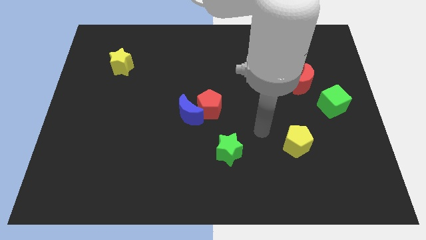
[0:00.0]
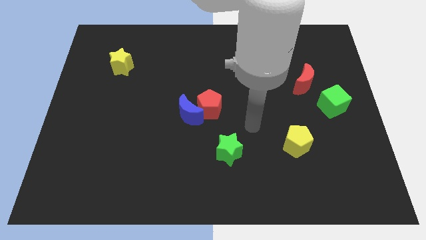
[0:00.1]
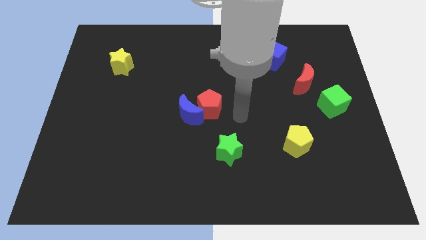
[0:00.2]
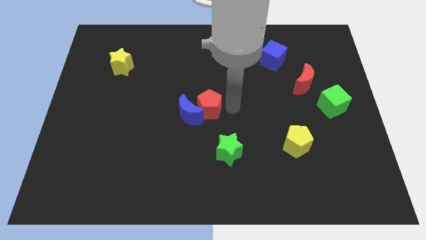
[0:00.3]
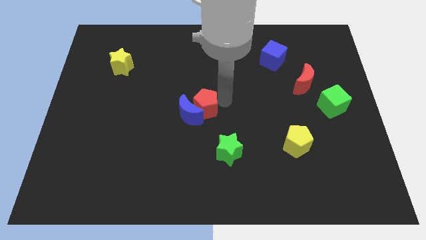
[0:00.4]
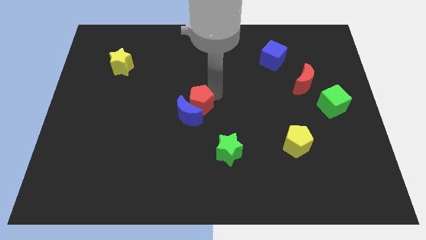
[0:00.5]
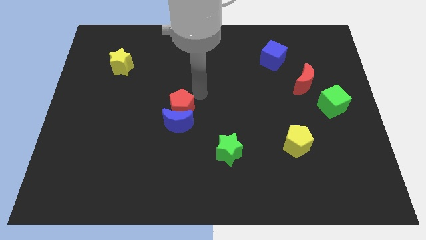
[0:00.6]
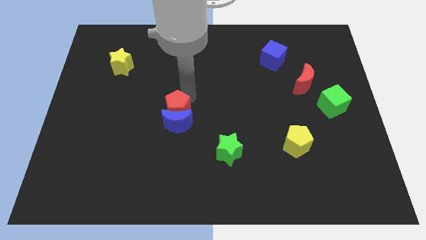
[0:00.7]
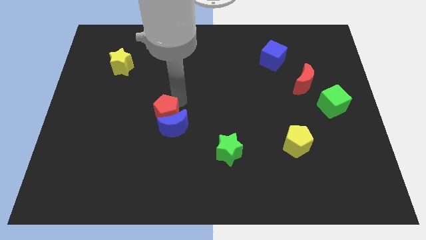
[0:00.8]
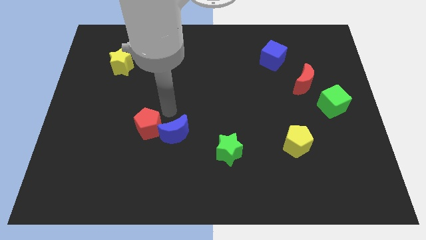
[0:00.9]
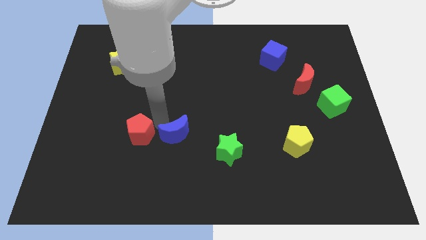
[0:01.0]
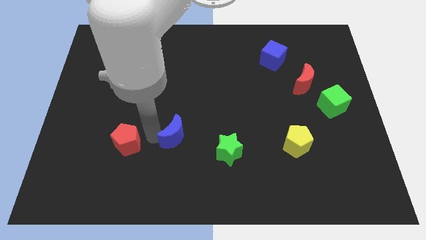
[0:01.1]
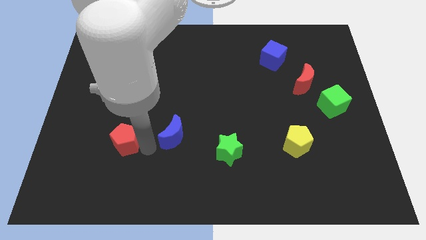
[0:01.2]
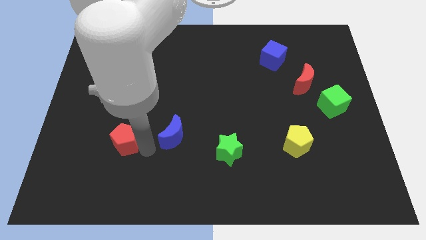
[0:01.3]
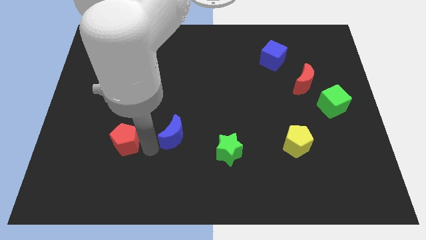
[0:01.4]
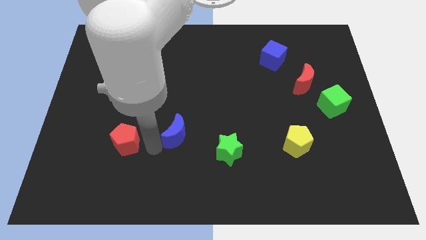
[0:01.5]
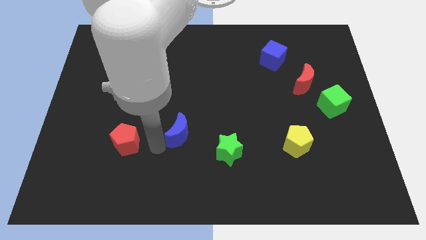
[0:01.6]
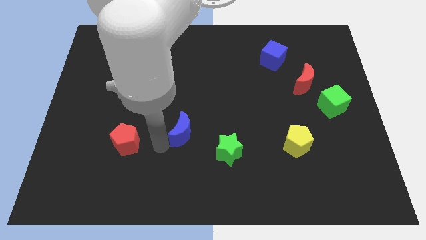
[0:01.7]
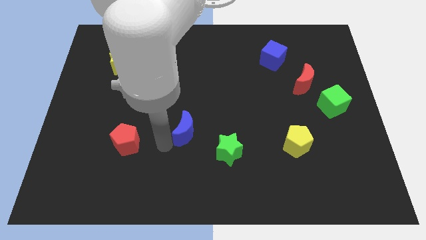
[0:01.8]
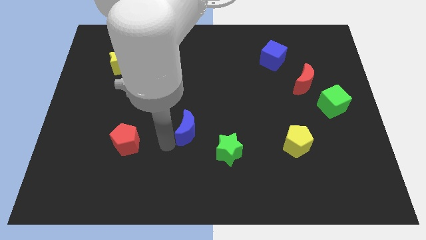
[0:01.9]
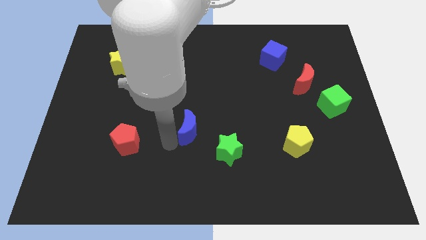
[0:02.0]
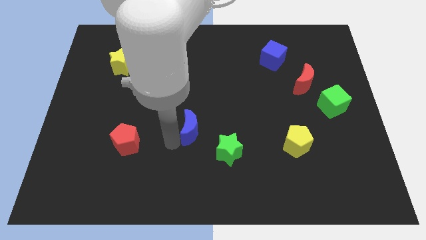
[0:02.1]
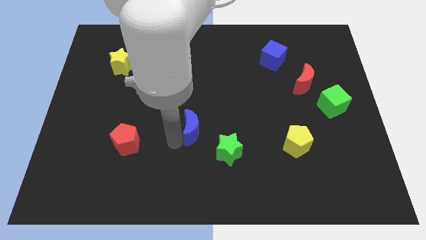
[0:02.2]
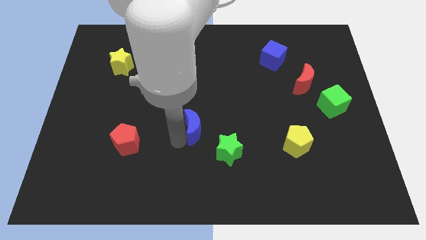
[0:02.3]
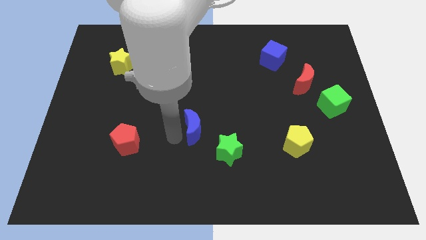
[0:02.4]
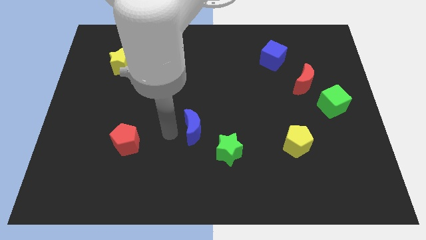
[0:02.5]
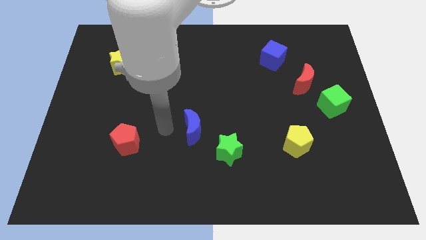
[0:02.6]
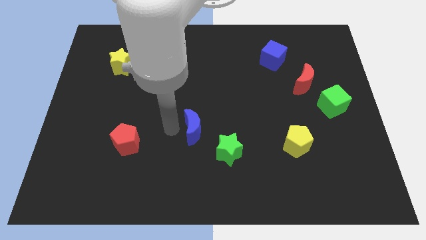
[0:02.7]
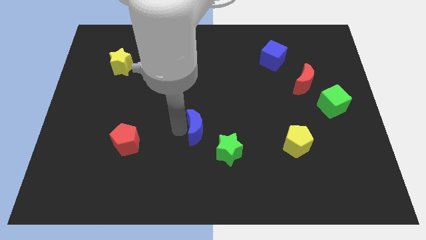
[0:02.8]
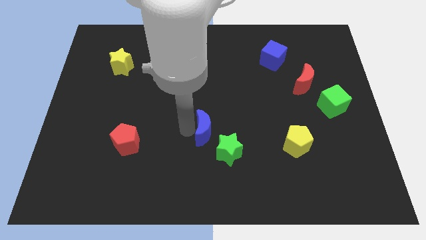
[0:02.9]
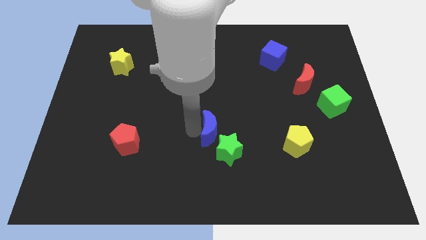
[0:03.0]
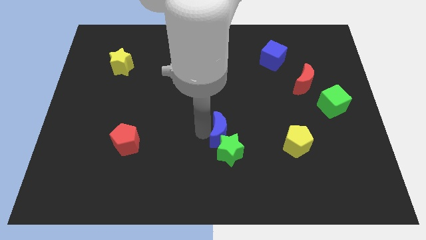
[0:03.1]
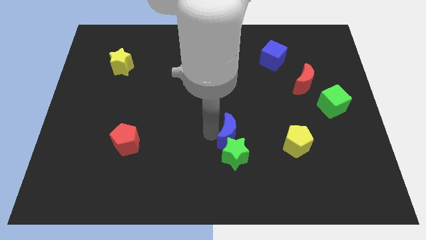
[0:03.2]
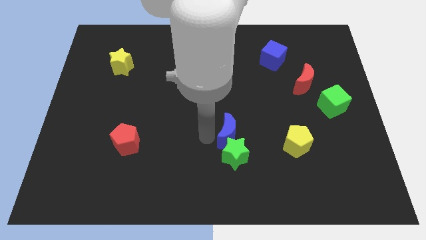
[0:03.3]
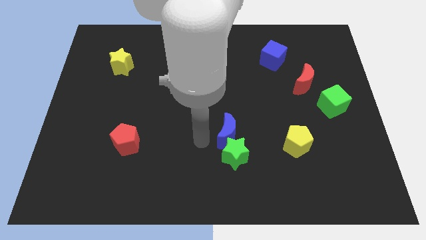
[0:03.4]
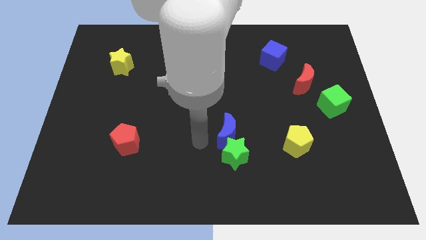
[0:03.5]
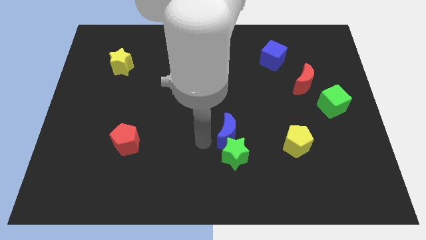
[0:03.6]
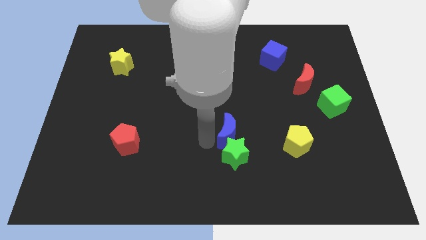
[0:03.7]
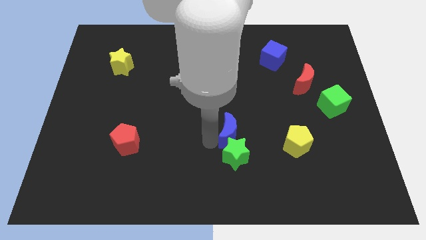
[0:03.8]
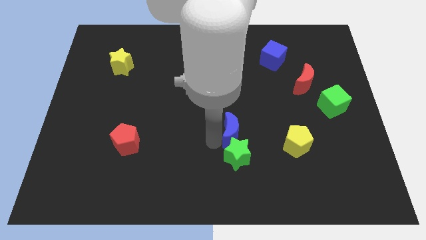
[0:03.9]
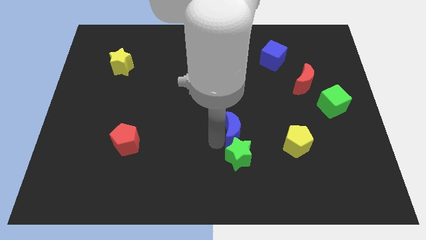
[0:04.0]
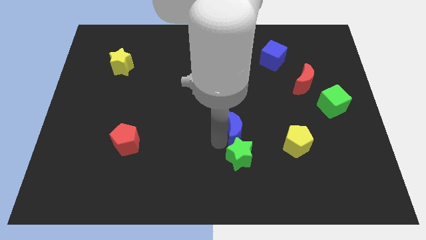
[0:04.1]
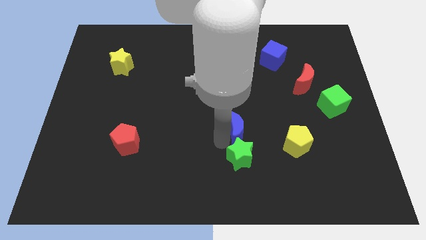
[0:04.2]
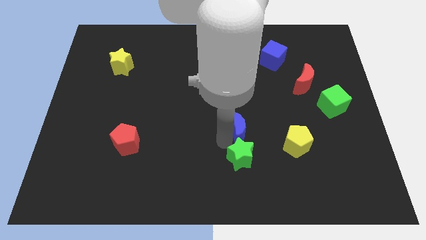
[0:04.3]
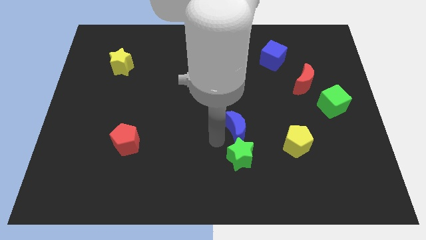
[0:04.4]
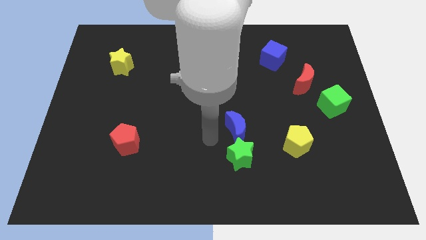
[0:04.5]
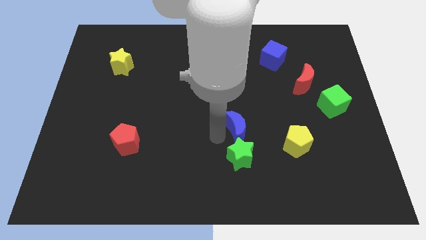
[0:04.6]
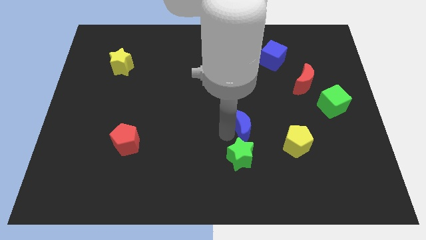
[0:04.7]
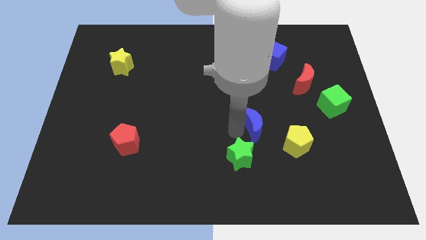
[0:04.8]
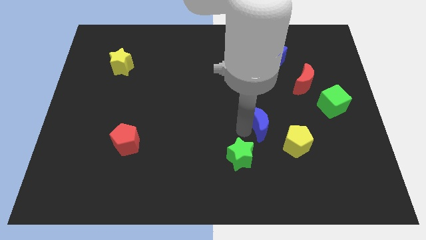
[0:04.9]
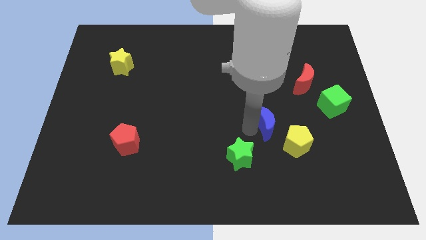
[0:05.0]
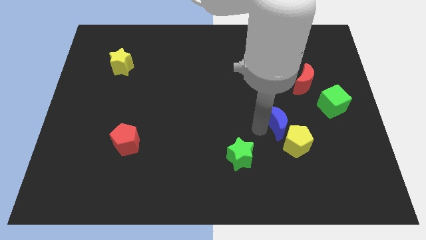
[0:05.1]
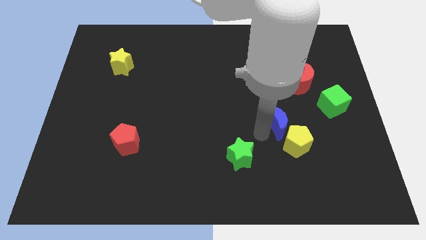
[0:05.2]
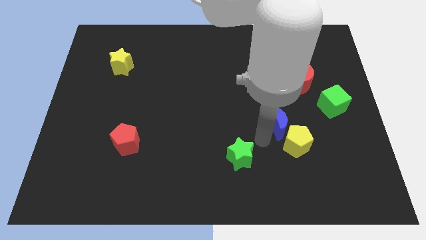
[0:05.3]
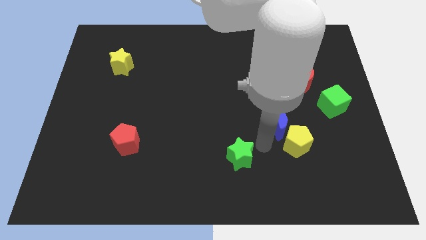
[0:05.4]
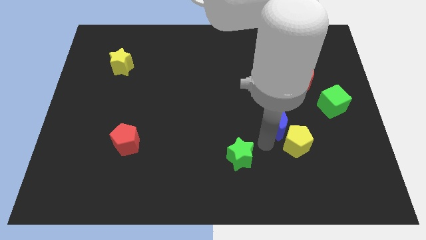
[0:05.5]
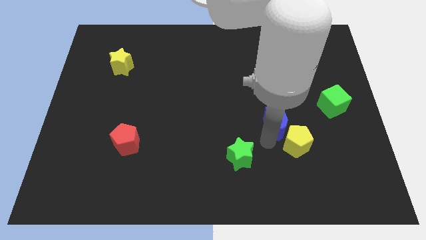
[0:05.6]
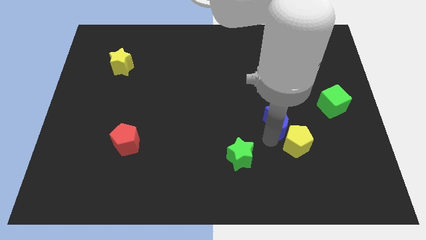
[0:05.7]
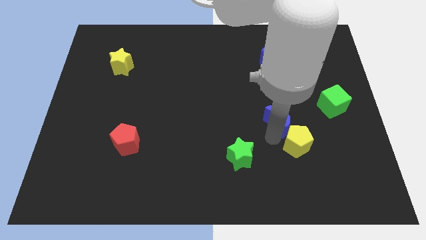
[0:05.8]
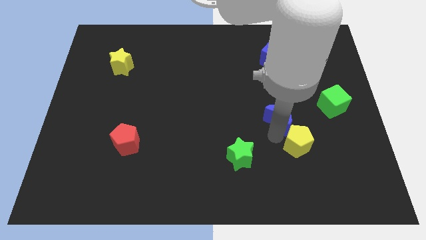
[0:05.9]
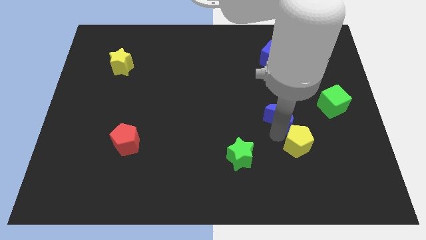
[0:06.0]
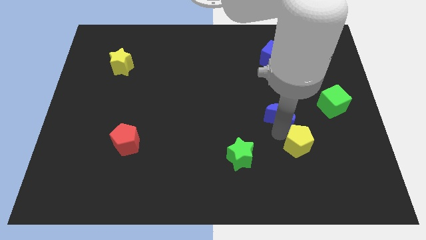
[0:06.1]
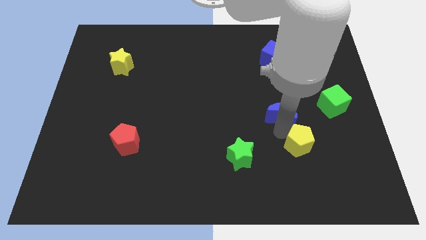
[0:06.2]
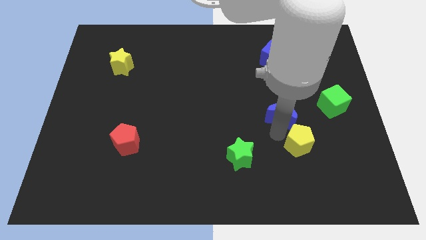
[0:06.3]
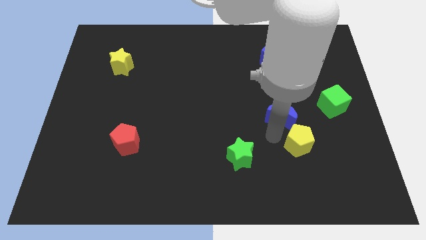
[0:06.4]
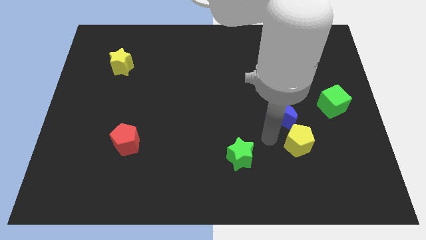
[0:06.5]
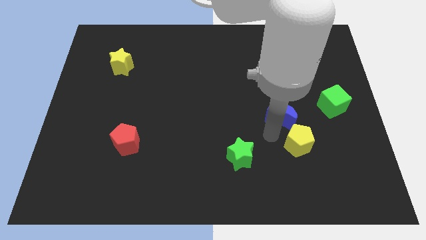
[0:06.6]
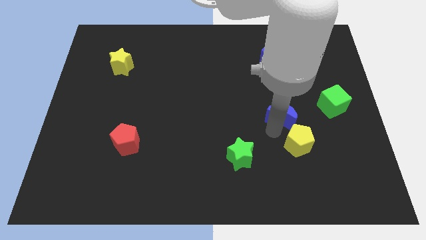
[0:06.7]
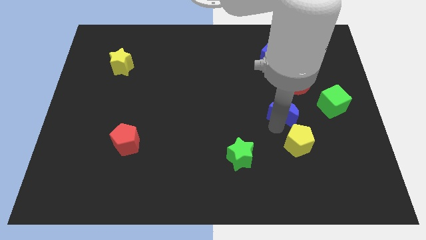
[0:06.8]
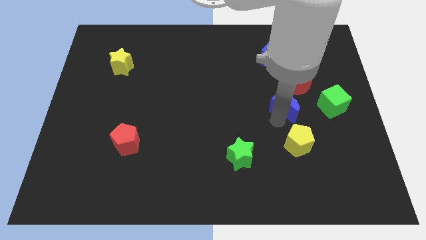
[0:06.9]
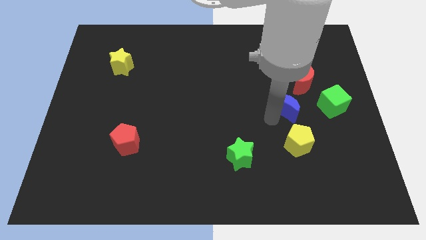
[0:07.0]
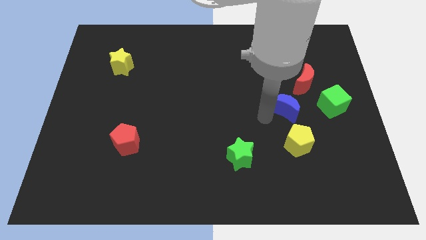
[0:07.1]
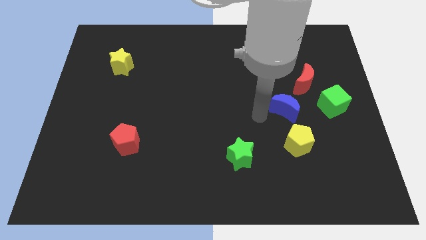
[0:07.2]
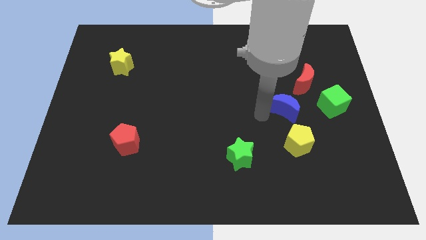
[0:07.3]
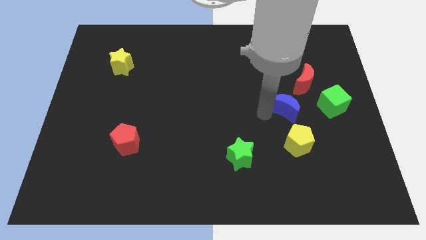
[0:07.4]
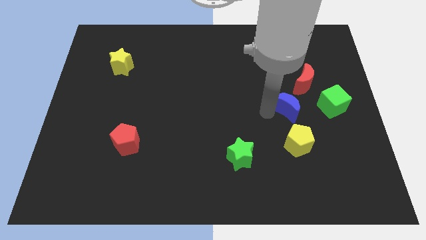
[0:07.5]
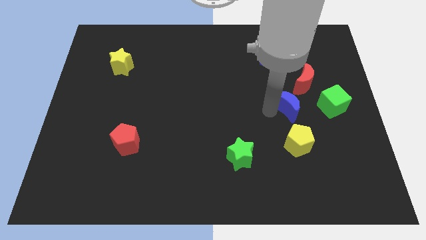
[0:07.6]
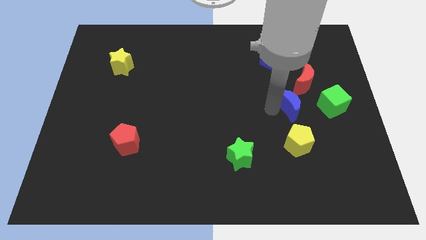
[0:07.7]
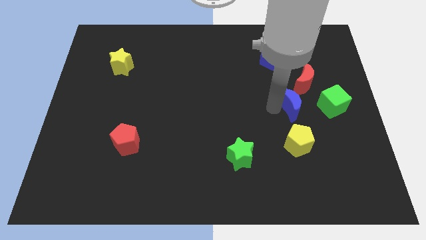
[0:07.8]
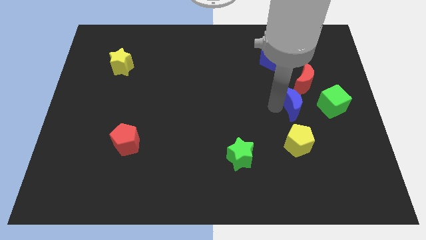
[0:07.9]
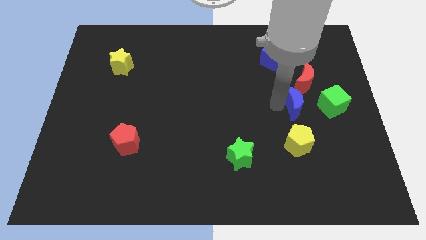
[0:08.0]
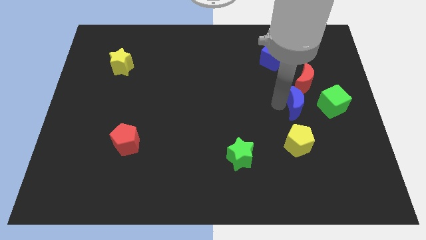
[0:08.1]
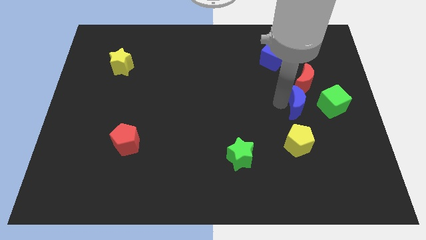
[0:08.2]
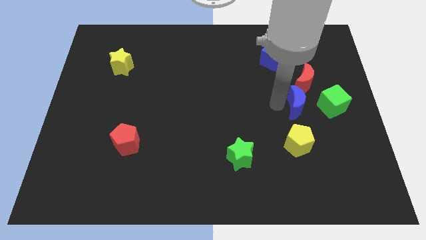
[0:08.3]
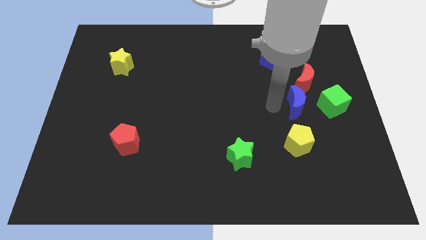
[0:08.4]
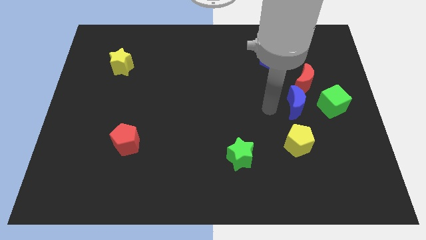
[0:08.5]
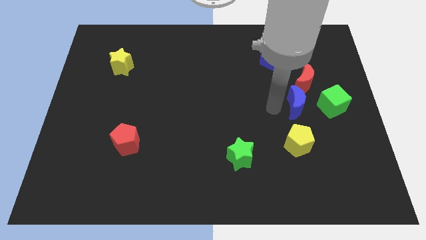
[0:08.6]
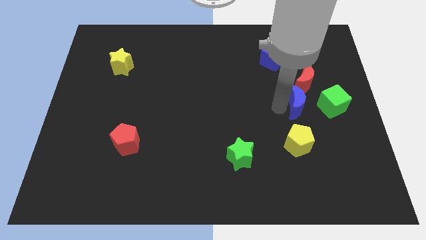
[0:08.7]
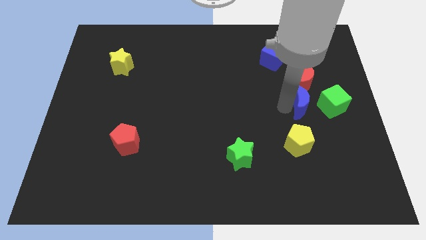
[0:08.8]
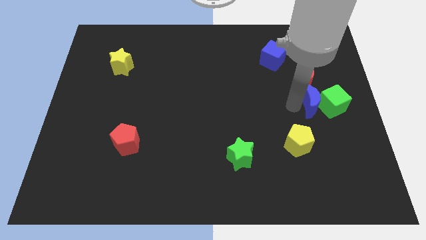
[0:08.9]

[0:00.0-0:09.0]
move the blue moon close to the green cube
